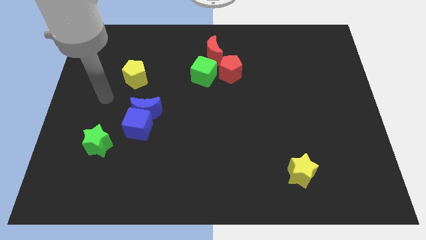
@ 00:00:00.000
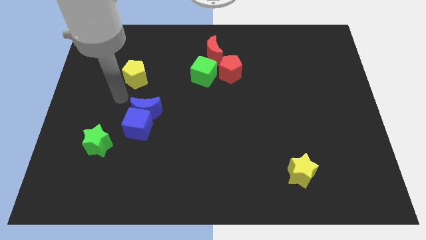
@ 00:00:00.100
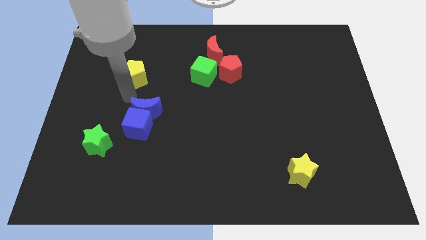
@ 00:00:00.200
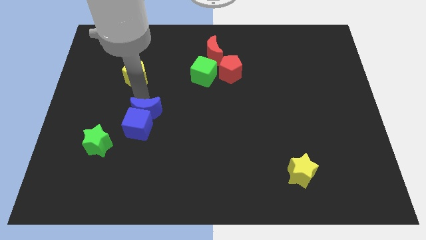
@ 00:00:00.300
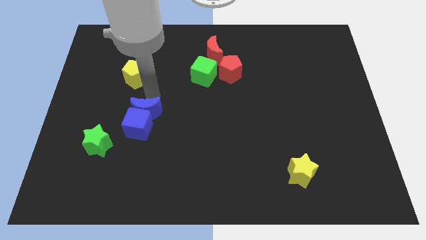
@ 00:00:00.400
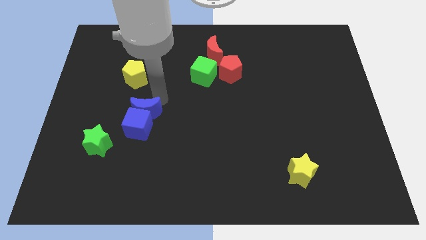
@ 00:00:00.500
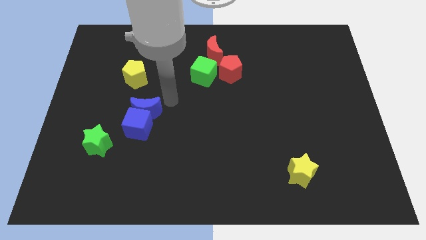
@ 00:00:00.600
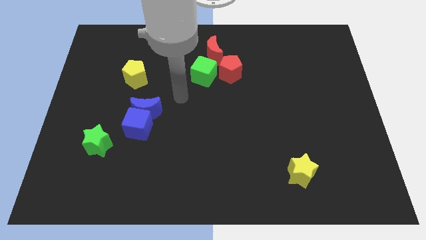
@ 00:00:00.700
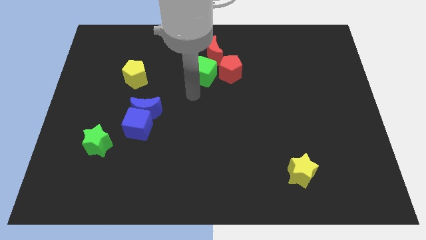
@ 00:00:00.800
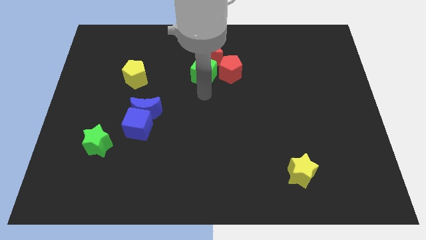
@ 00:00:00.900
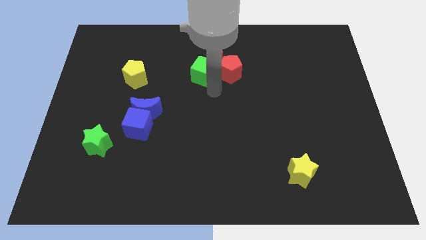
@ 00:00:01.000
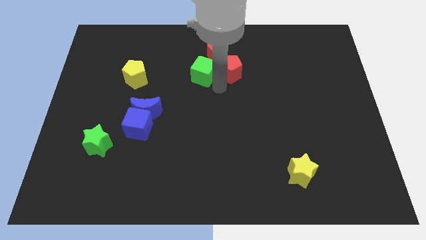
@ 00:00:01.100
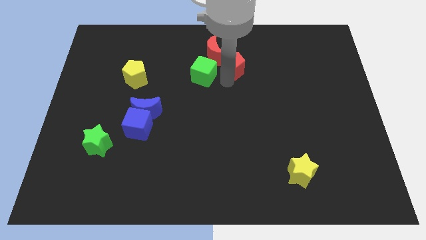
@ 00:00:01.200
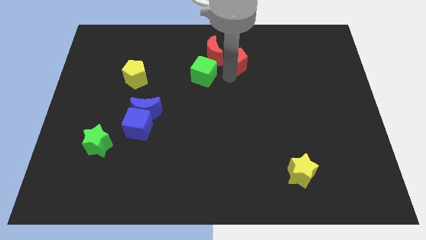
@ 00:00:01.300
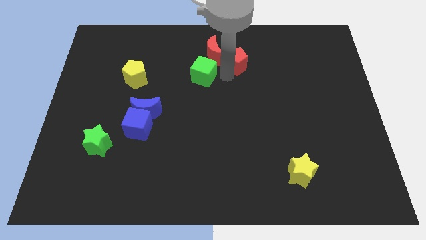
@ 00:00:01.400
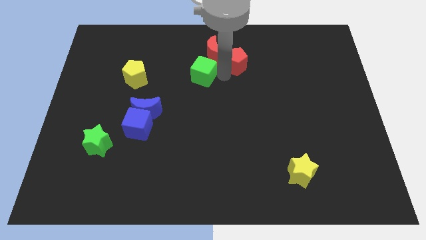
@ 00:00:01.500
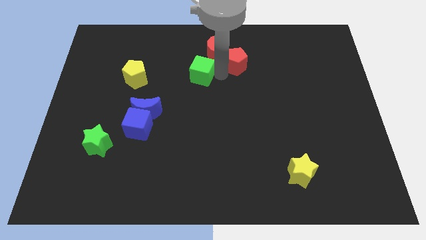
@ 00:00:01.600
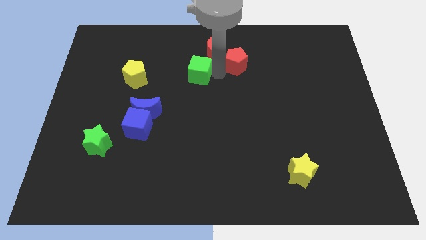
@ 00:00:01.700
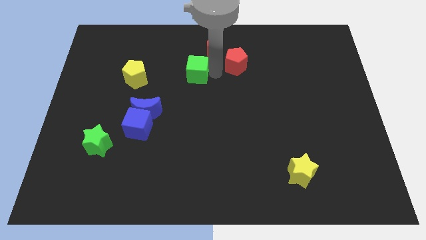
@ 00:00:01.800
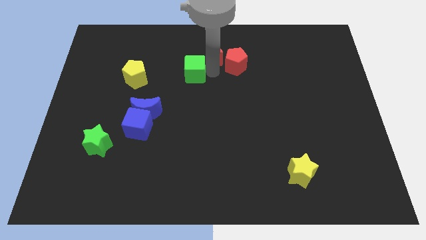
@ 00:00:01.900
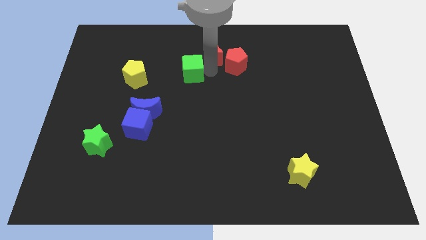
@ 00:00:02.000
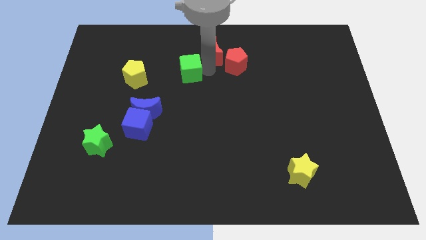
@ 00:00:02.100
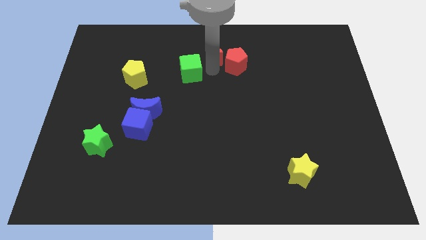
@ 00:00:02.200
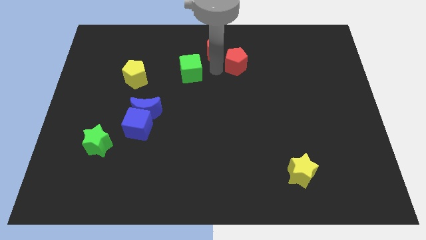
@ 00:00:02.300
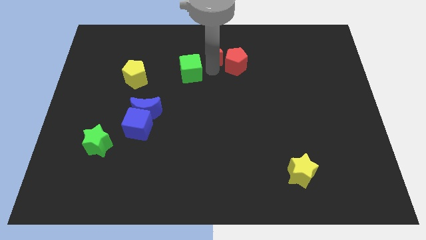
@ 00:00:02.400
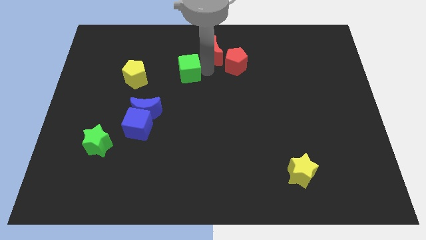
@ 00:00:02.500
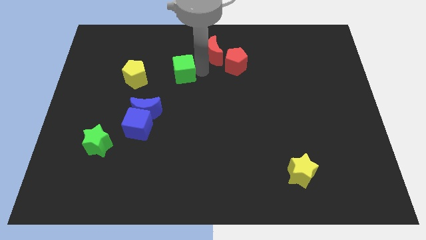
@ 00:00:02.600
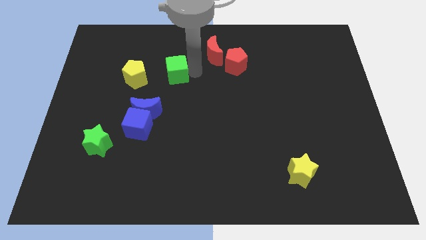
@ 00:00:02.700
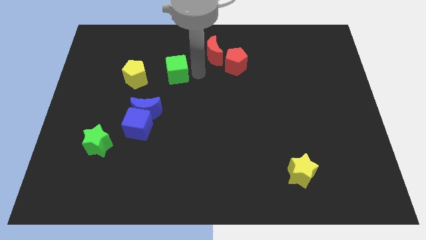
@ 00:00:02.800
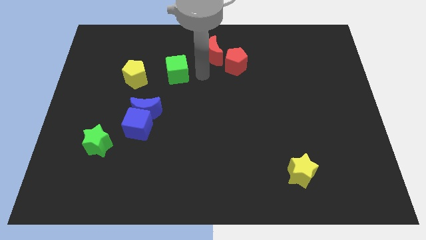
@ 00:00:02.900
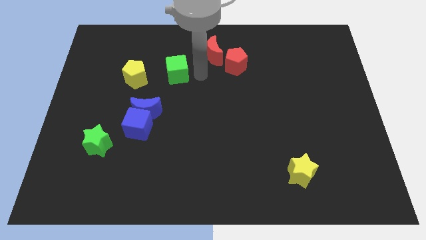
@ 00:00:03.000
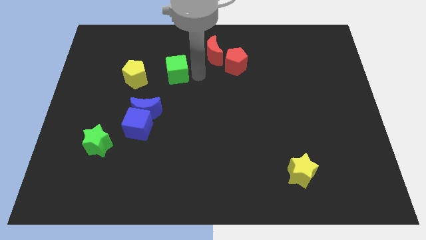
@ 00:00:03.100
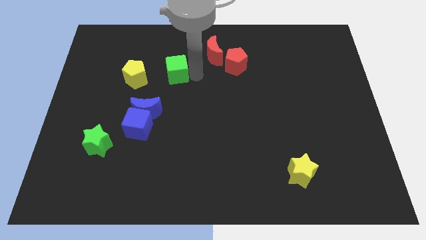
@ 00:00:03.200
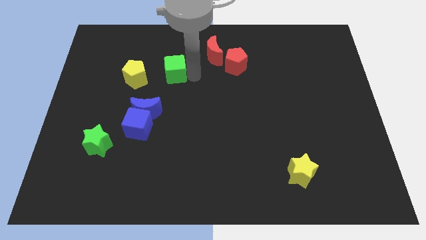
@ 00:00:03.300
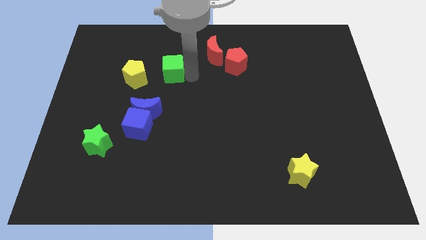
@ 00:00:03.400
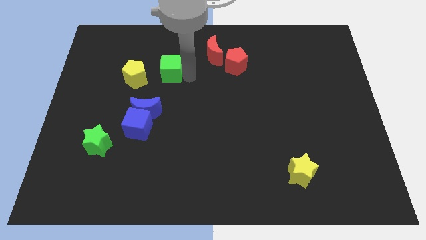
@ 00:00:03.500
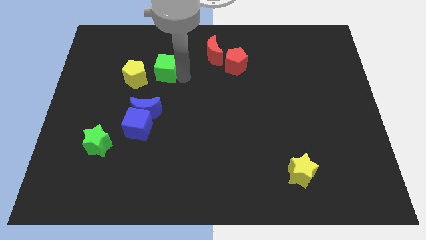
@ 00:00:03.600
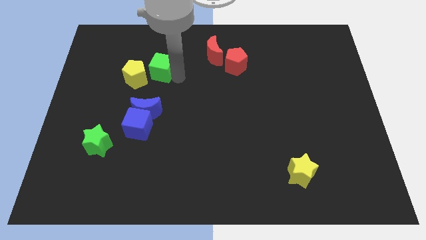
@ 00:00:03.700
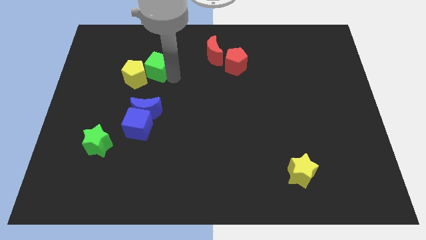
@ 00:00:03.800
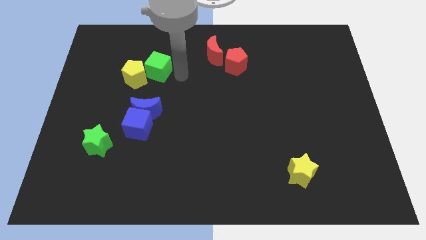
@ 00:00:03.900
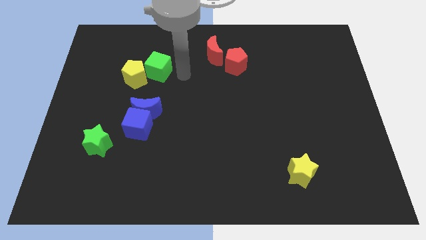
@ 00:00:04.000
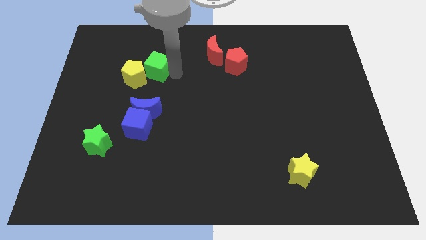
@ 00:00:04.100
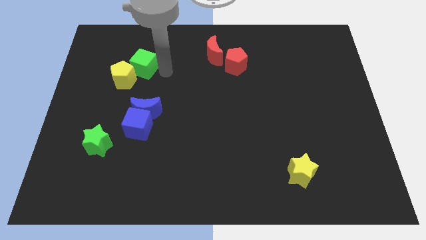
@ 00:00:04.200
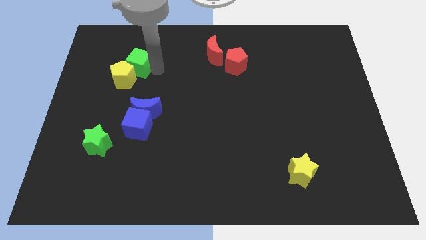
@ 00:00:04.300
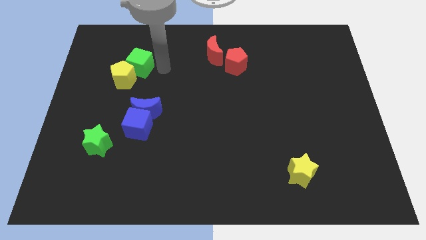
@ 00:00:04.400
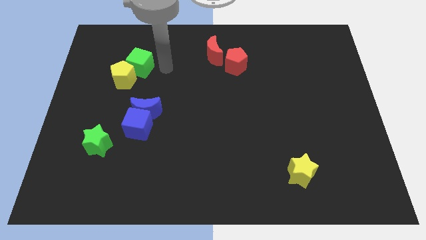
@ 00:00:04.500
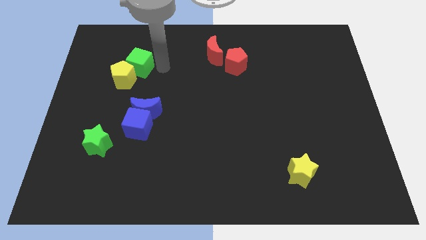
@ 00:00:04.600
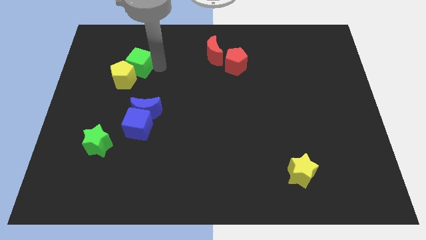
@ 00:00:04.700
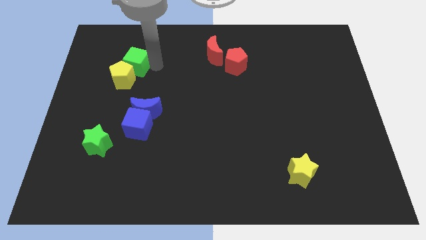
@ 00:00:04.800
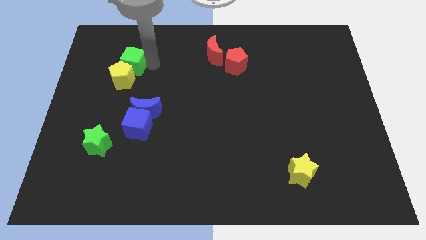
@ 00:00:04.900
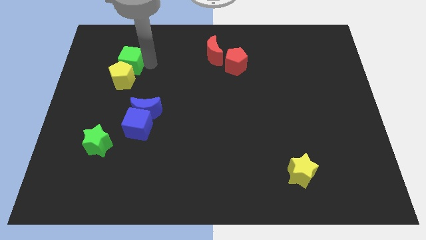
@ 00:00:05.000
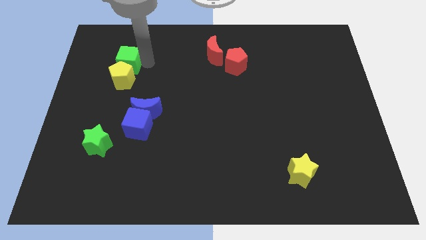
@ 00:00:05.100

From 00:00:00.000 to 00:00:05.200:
slide the green cube to the top left of the yellow pentagon

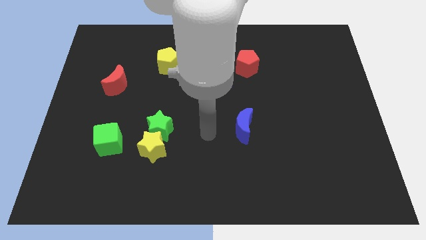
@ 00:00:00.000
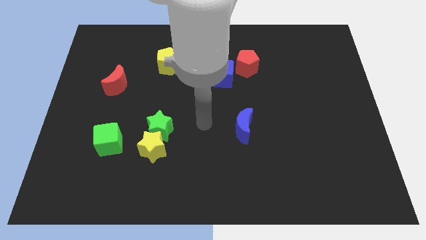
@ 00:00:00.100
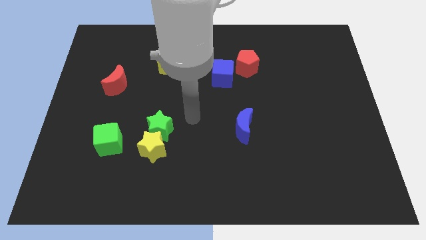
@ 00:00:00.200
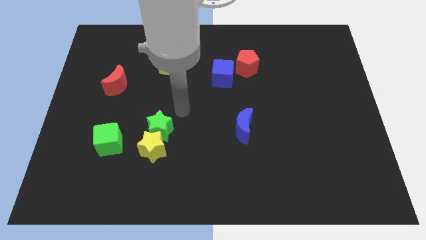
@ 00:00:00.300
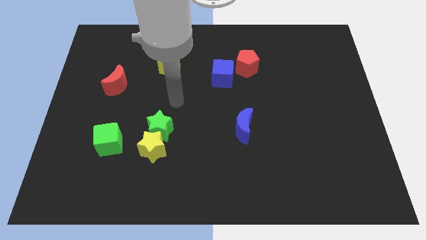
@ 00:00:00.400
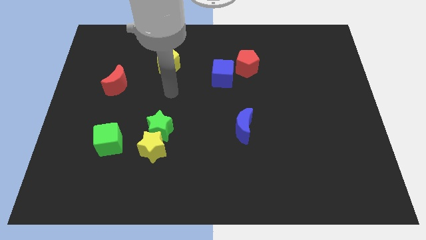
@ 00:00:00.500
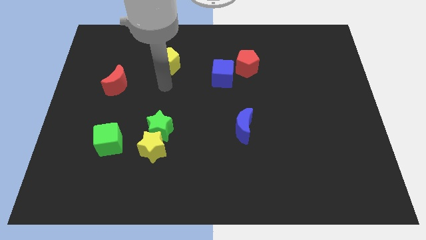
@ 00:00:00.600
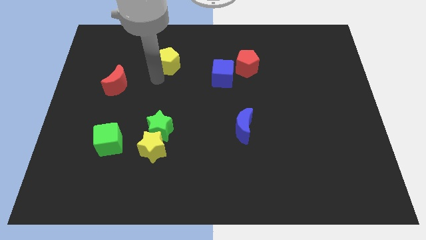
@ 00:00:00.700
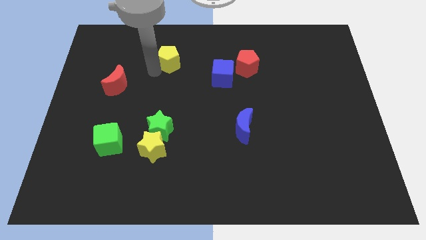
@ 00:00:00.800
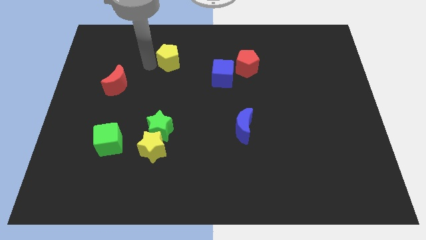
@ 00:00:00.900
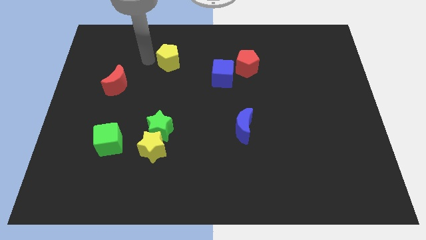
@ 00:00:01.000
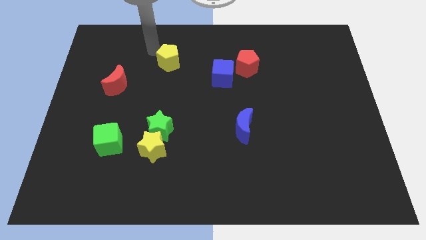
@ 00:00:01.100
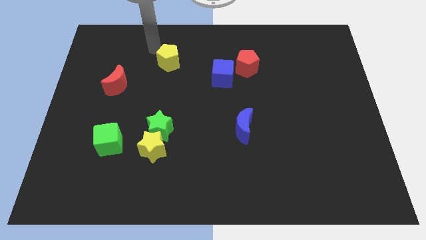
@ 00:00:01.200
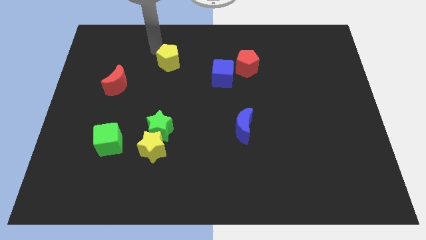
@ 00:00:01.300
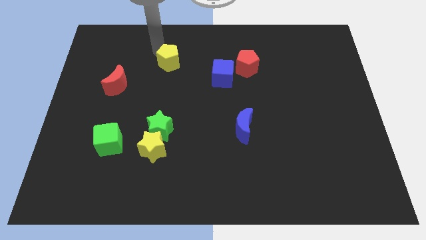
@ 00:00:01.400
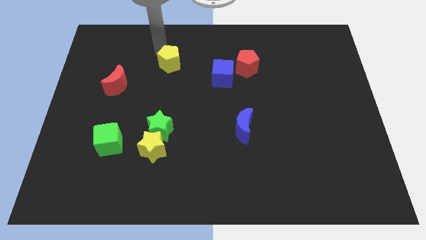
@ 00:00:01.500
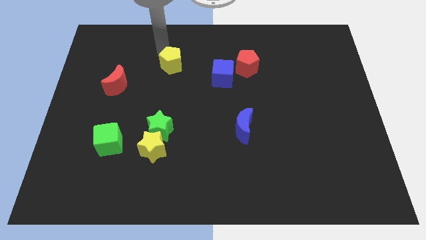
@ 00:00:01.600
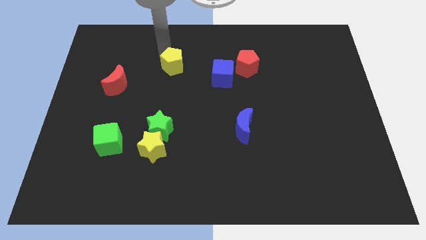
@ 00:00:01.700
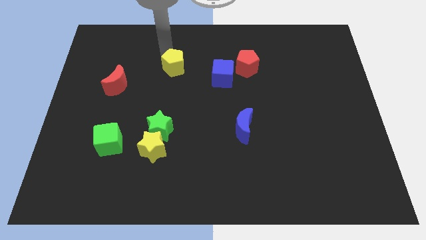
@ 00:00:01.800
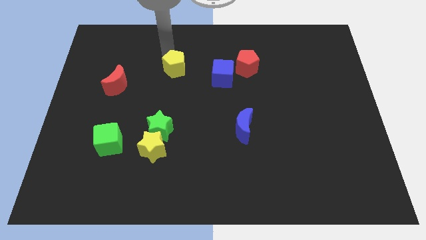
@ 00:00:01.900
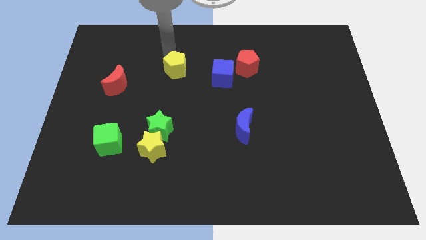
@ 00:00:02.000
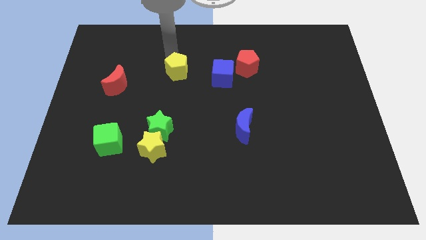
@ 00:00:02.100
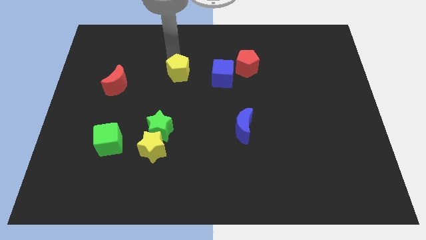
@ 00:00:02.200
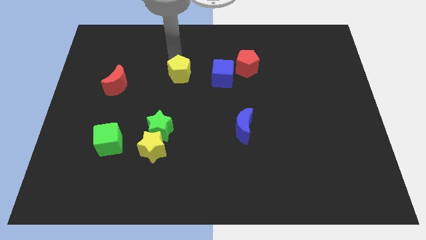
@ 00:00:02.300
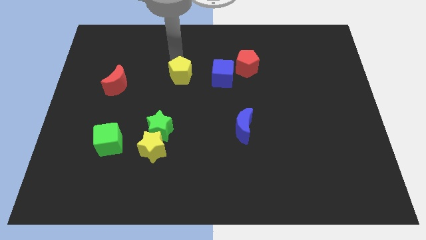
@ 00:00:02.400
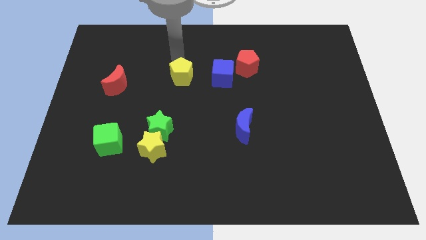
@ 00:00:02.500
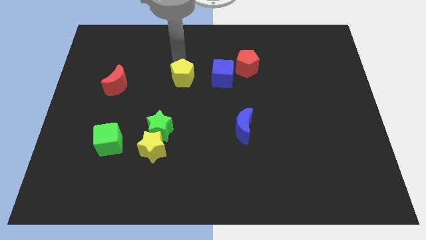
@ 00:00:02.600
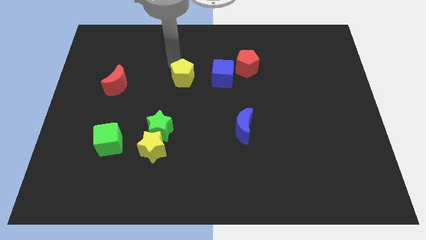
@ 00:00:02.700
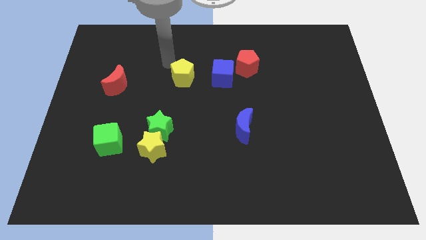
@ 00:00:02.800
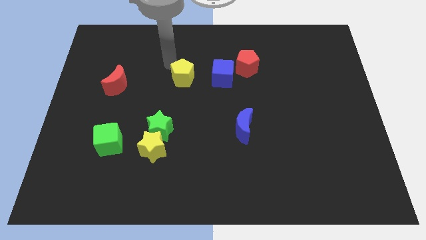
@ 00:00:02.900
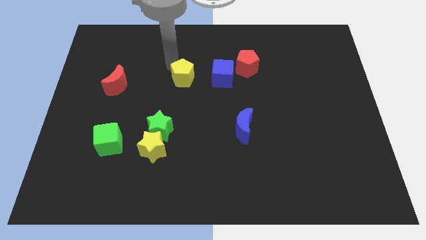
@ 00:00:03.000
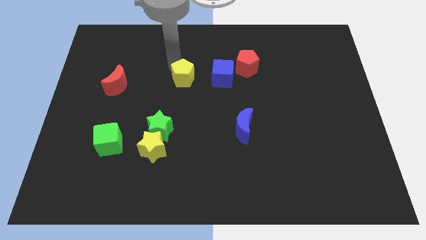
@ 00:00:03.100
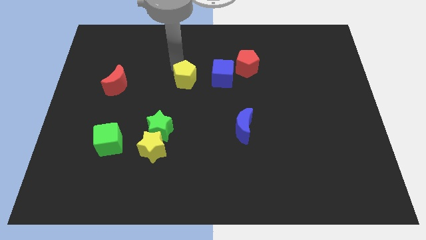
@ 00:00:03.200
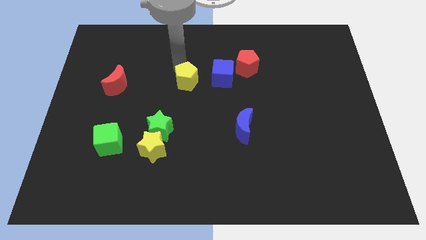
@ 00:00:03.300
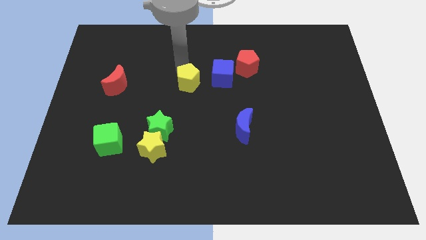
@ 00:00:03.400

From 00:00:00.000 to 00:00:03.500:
push the yellow pentagon to the bottom left of the blue cube
